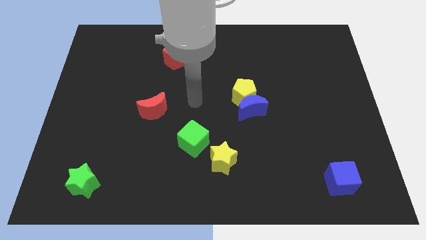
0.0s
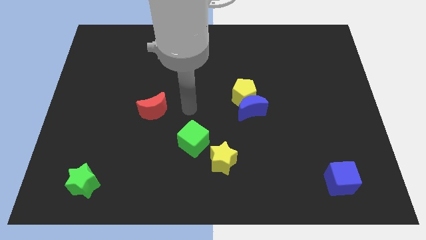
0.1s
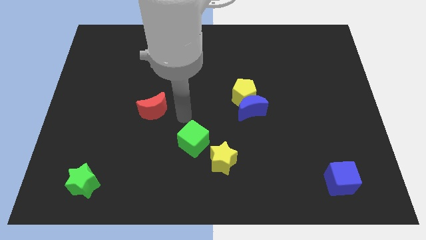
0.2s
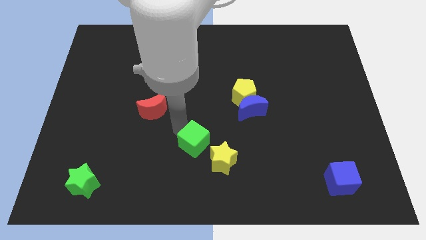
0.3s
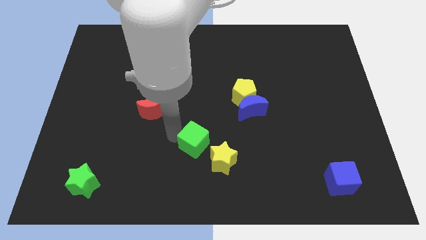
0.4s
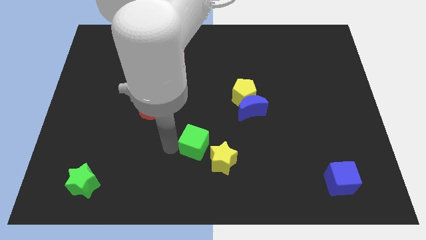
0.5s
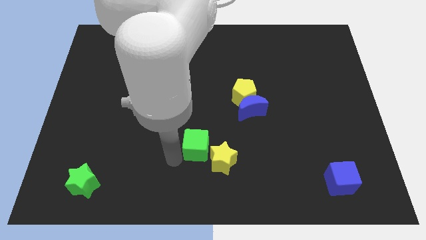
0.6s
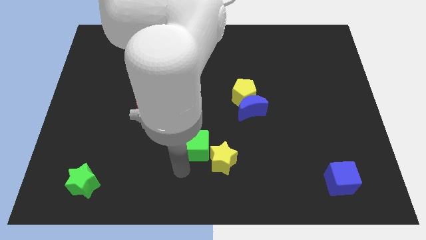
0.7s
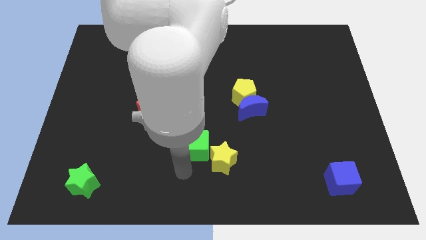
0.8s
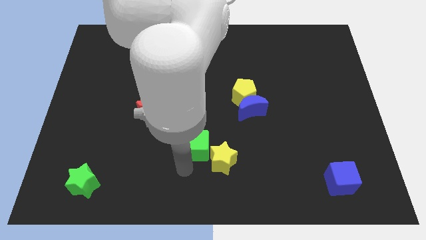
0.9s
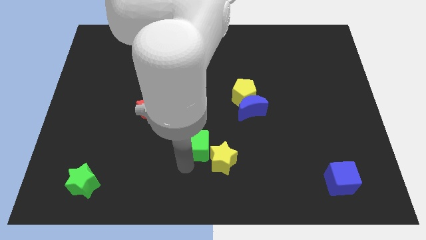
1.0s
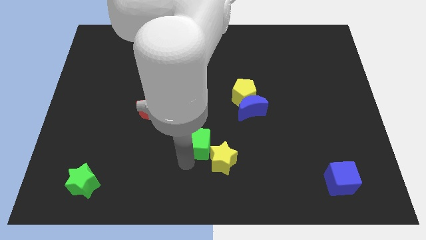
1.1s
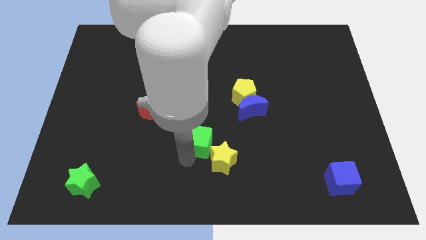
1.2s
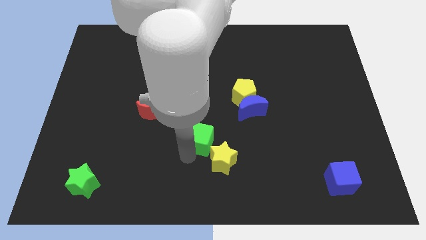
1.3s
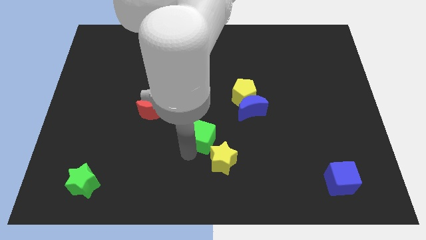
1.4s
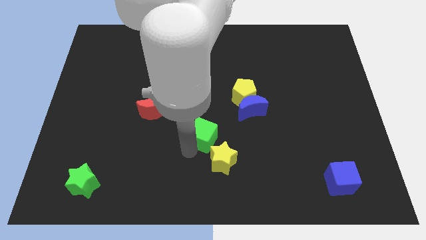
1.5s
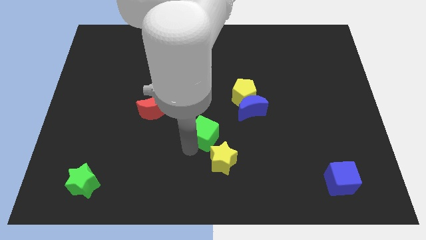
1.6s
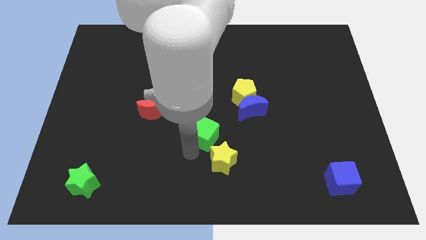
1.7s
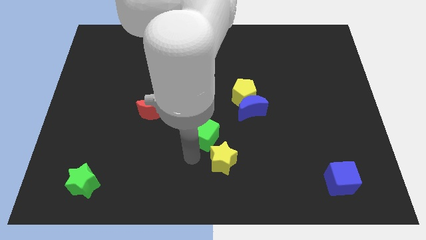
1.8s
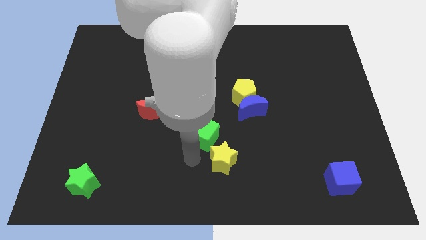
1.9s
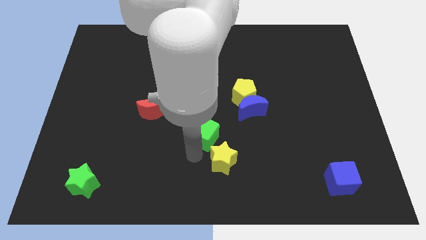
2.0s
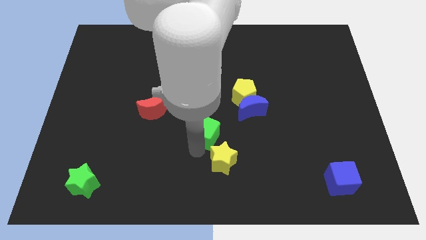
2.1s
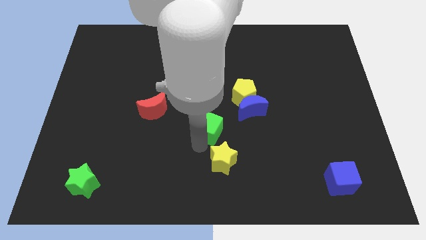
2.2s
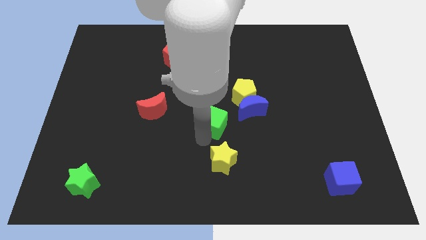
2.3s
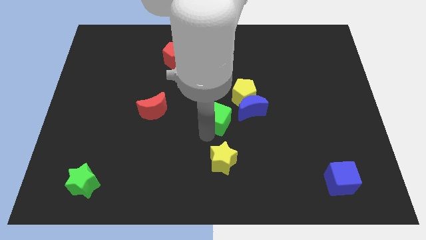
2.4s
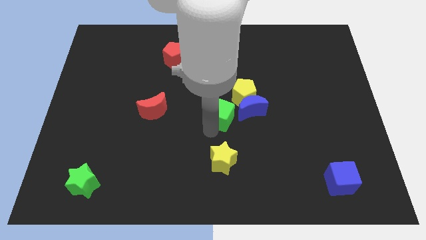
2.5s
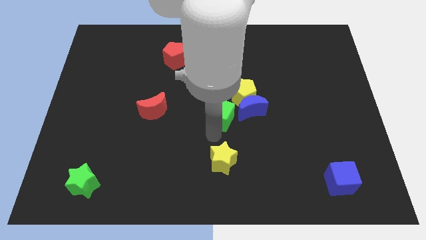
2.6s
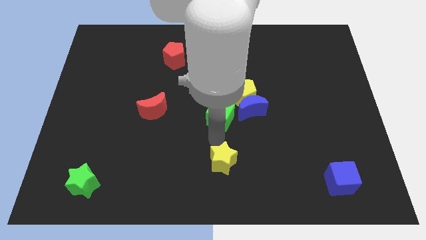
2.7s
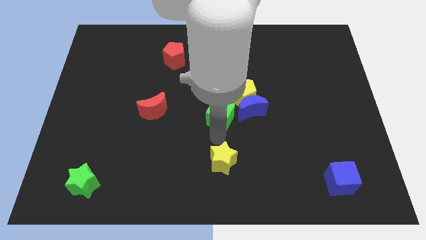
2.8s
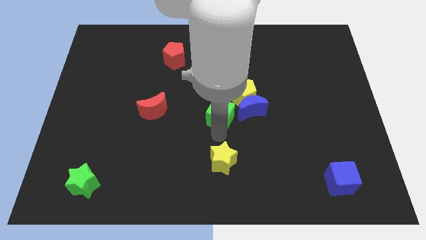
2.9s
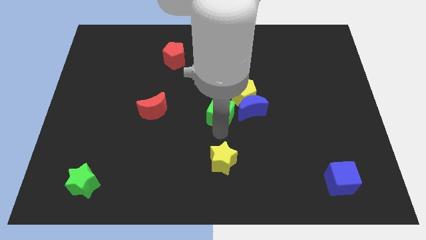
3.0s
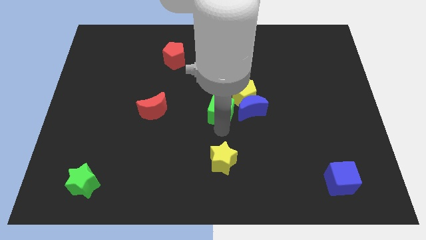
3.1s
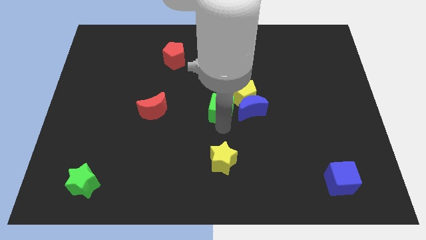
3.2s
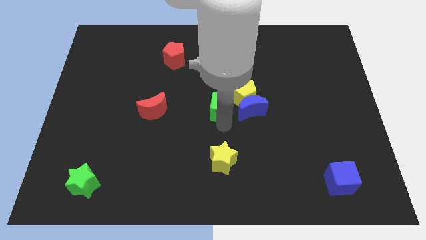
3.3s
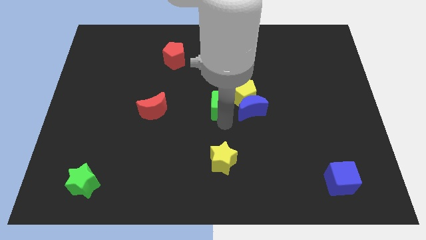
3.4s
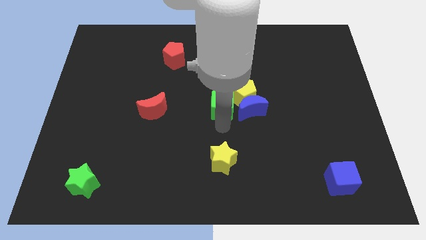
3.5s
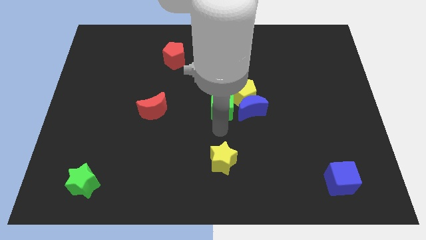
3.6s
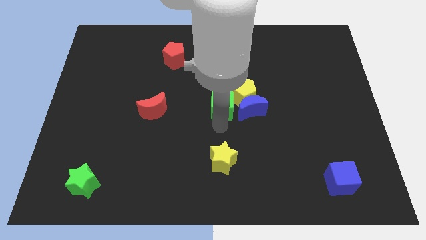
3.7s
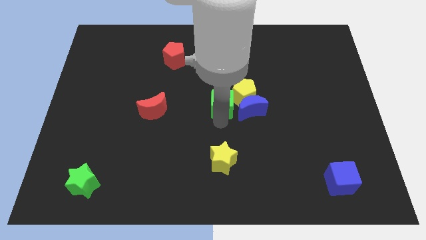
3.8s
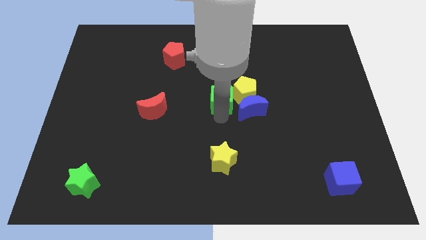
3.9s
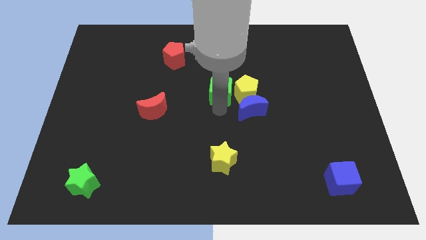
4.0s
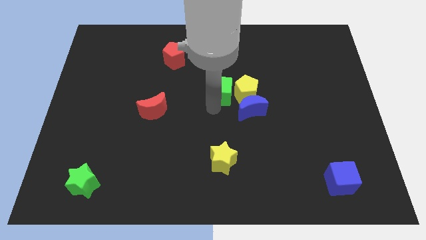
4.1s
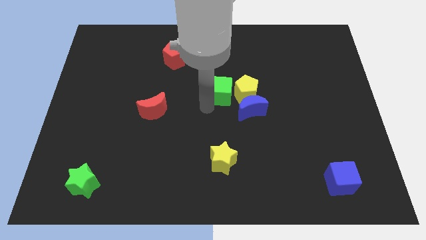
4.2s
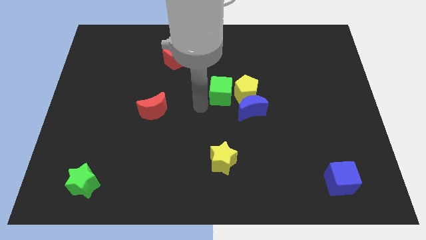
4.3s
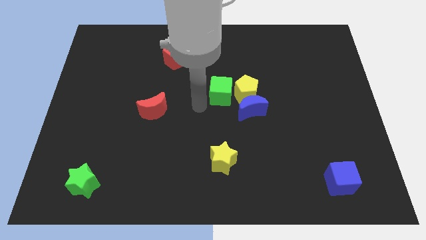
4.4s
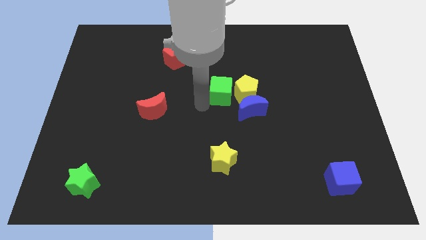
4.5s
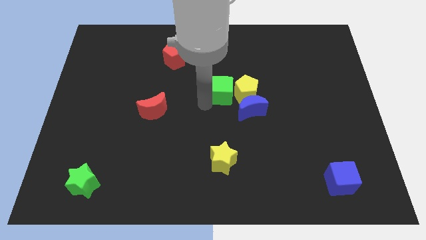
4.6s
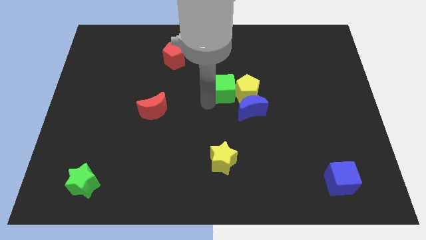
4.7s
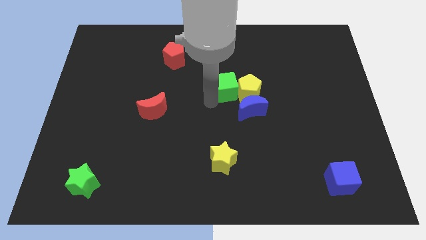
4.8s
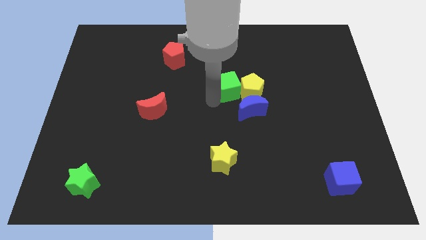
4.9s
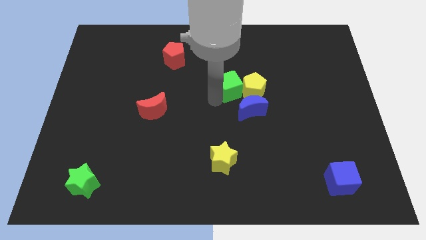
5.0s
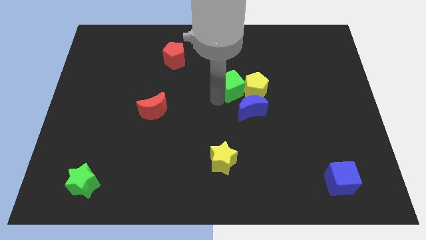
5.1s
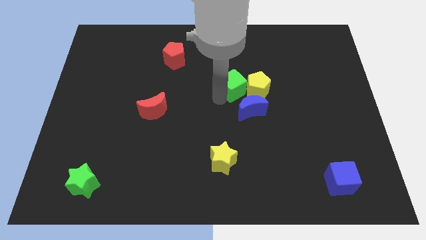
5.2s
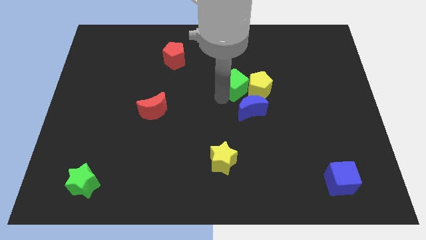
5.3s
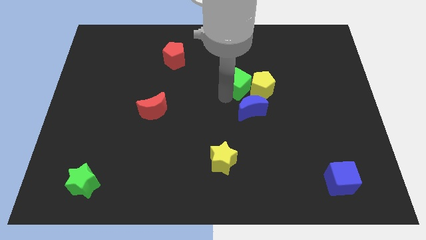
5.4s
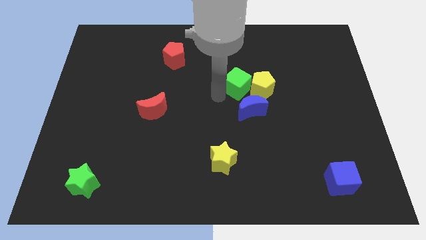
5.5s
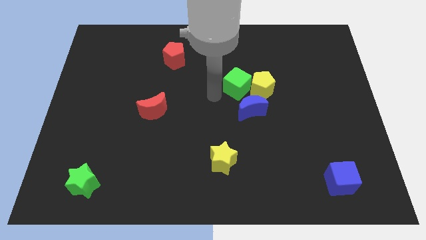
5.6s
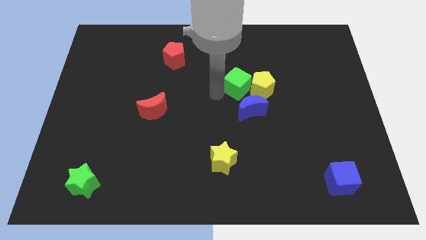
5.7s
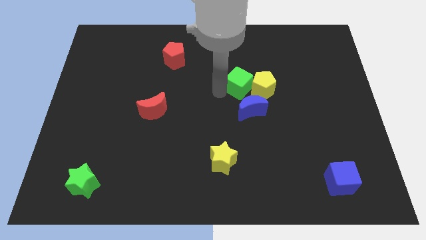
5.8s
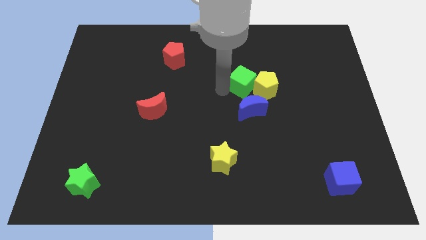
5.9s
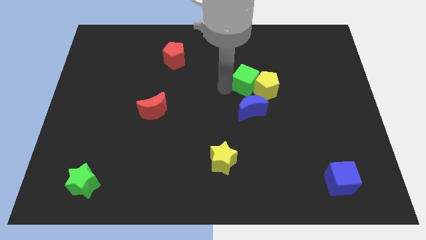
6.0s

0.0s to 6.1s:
push the green cube upwards and to the right

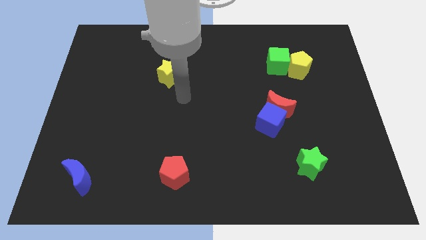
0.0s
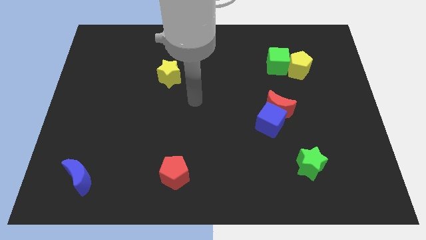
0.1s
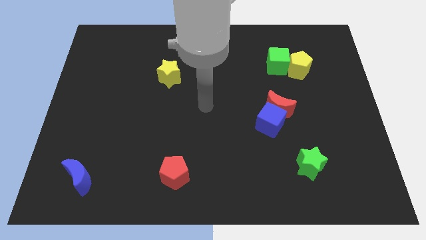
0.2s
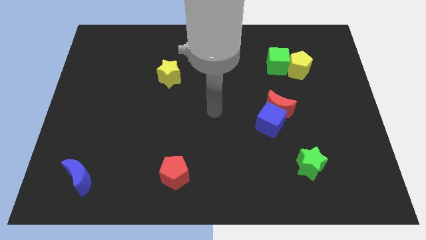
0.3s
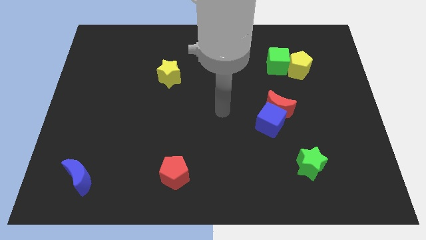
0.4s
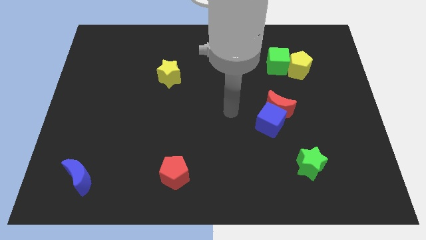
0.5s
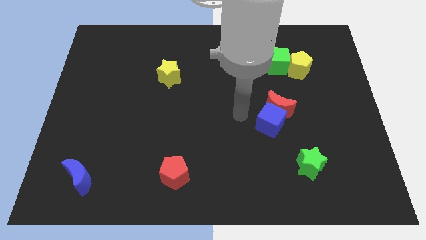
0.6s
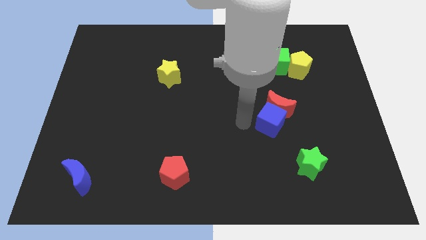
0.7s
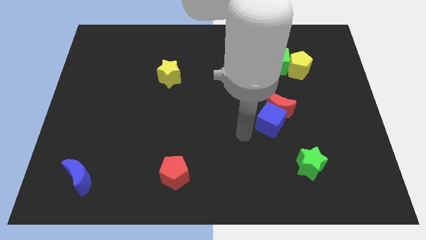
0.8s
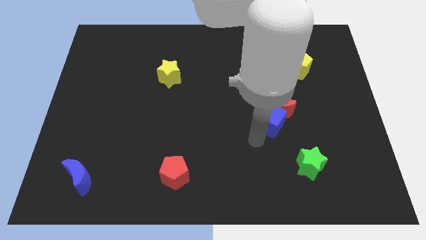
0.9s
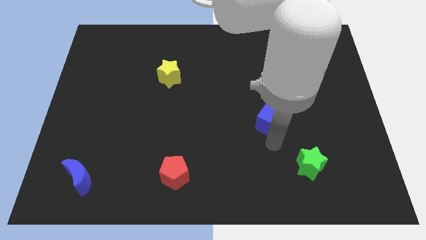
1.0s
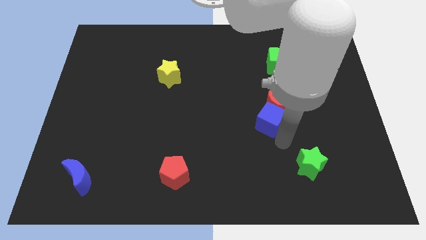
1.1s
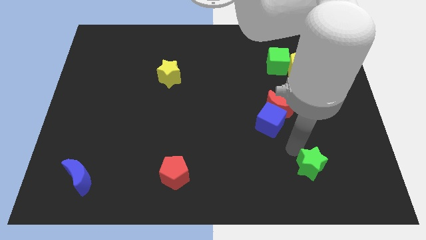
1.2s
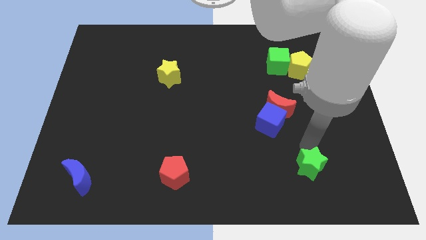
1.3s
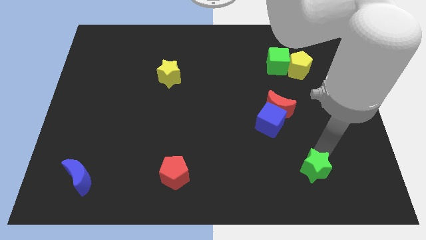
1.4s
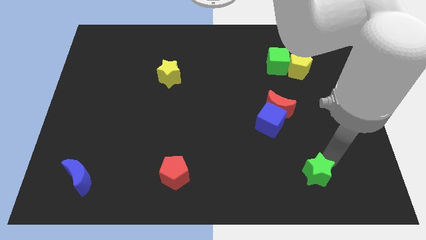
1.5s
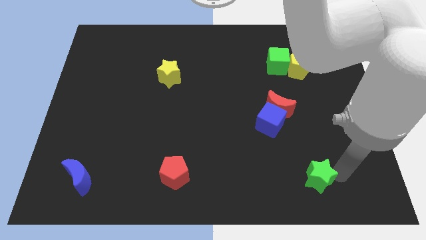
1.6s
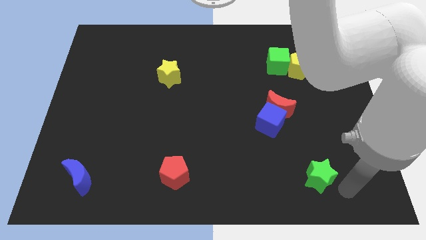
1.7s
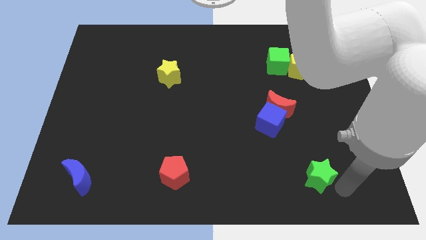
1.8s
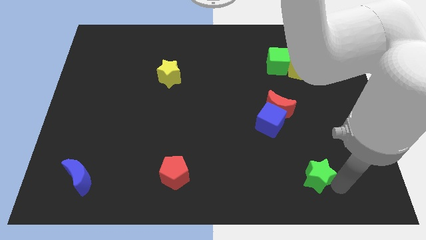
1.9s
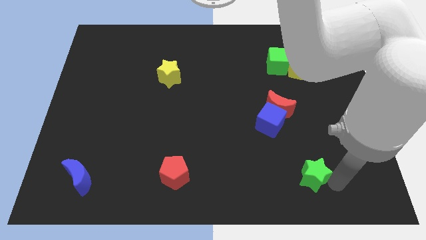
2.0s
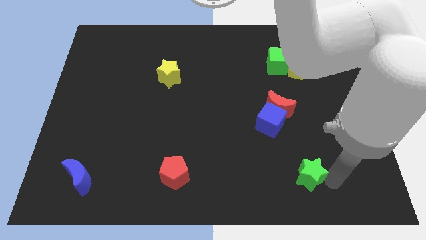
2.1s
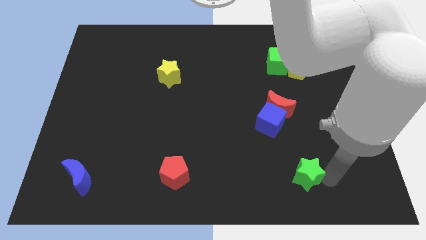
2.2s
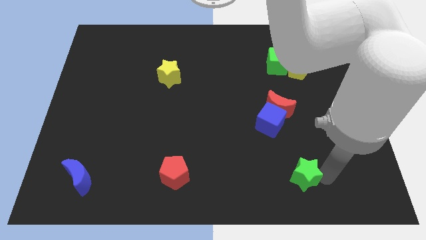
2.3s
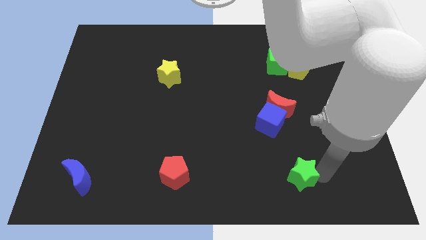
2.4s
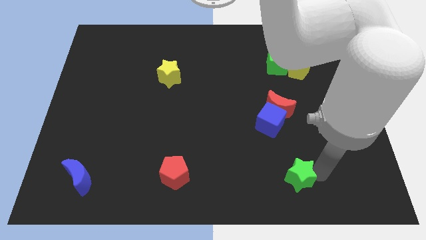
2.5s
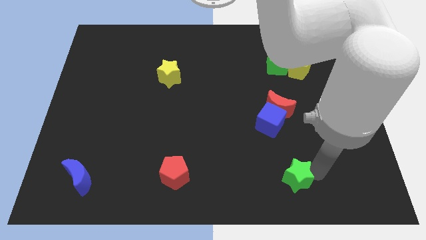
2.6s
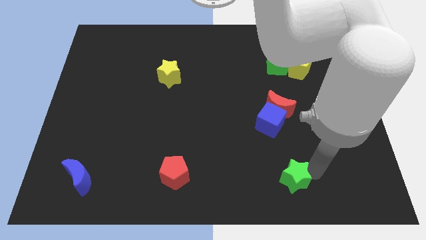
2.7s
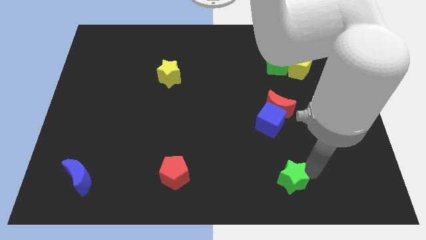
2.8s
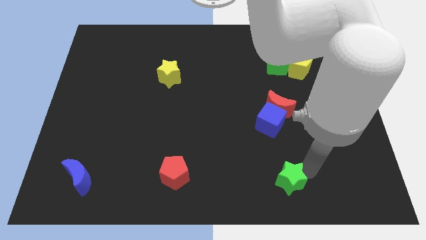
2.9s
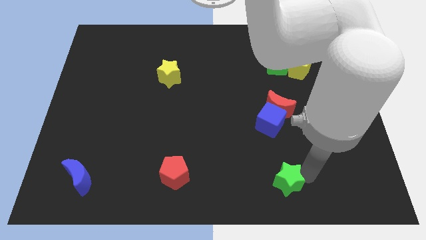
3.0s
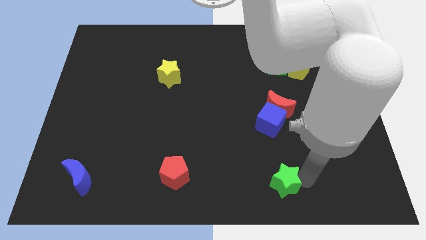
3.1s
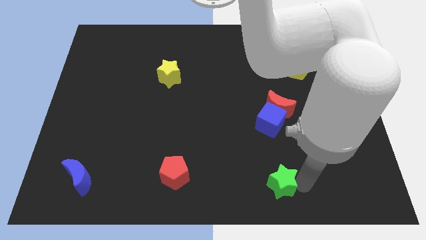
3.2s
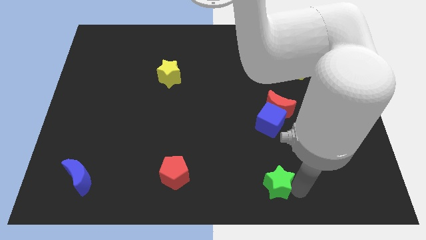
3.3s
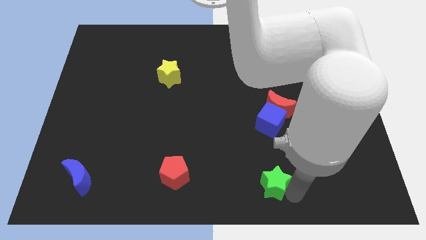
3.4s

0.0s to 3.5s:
slightly push the green star to the left
